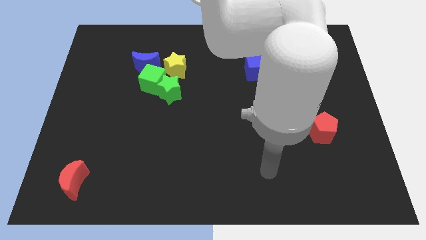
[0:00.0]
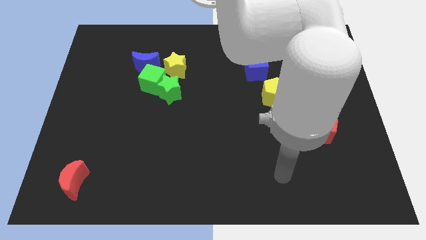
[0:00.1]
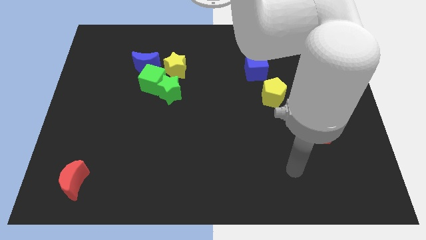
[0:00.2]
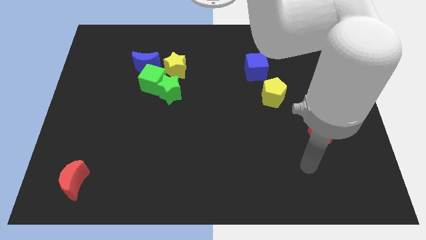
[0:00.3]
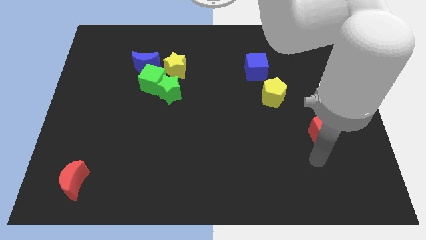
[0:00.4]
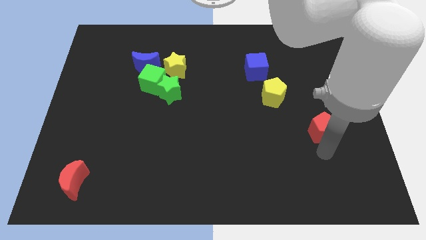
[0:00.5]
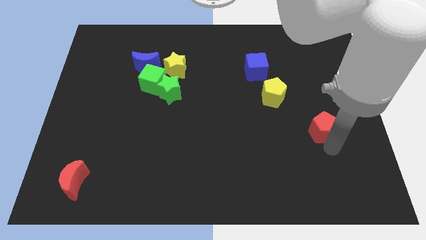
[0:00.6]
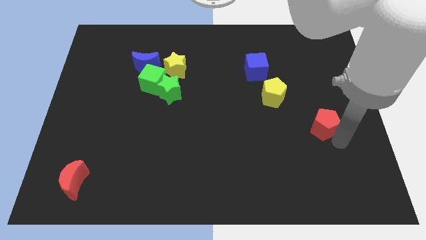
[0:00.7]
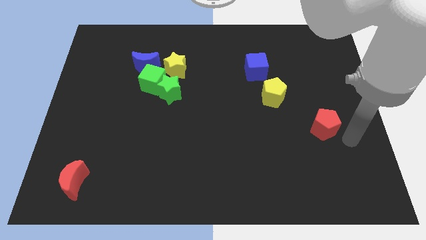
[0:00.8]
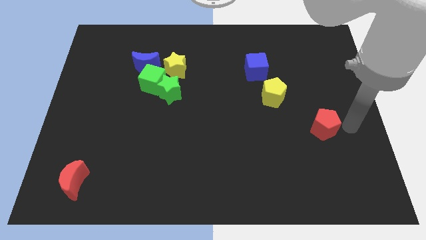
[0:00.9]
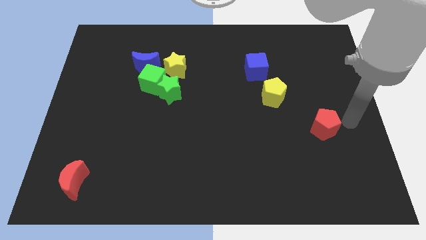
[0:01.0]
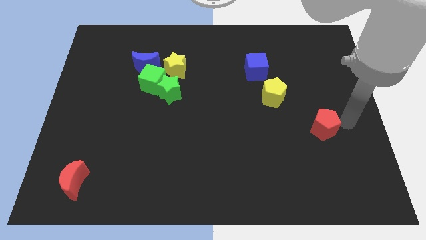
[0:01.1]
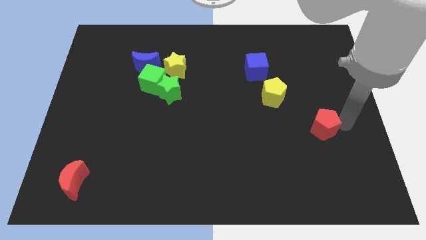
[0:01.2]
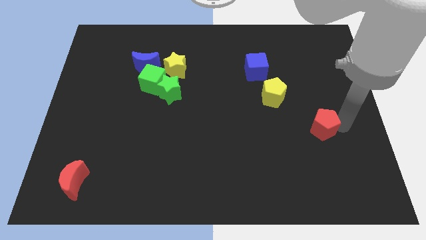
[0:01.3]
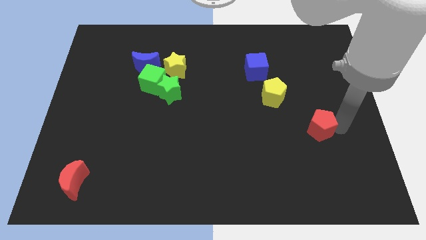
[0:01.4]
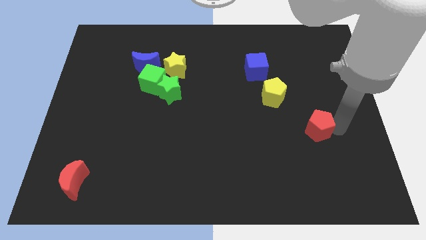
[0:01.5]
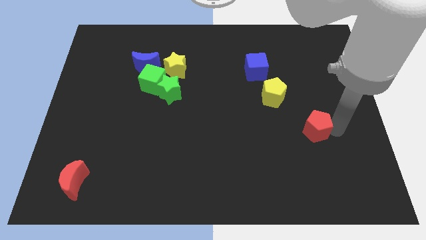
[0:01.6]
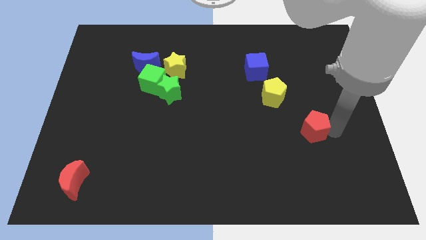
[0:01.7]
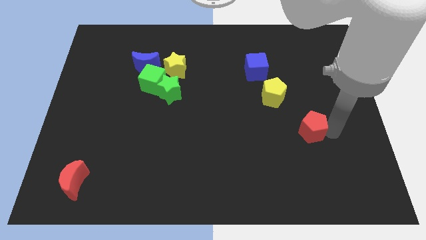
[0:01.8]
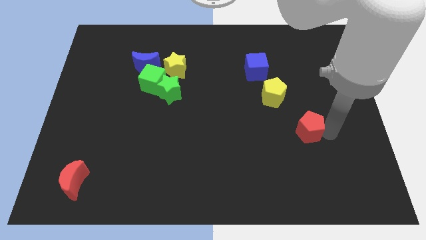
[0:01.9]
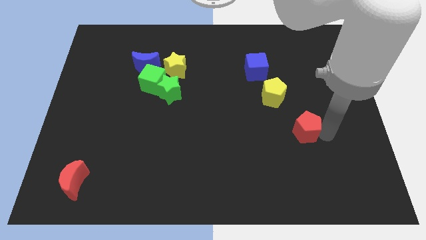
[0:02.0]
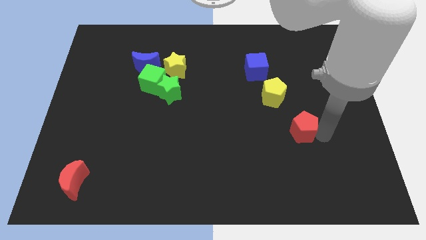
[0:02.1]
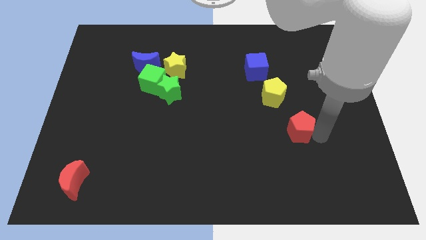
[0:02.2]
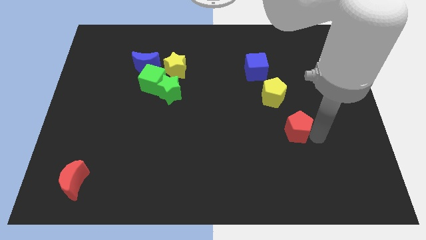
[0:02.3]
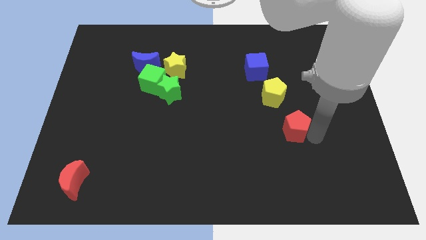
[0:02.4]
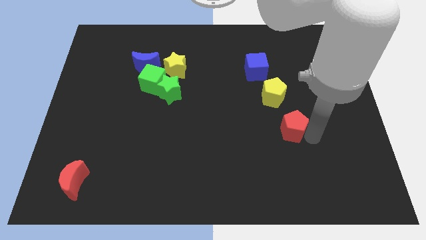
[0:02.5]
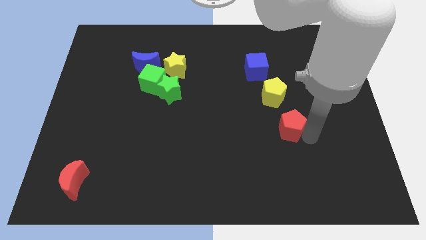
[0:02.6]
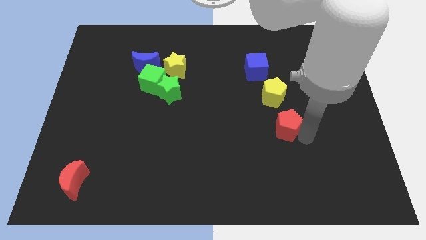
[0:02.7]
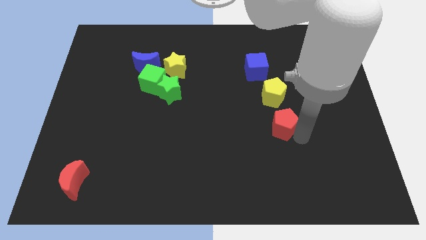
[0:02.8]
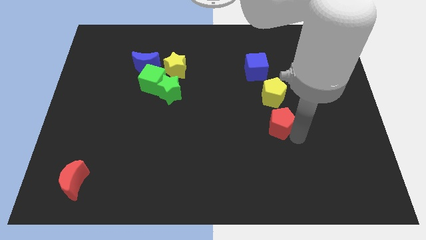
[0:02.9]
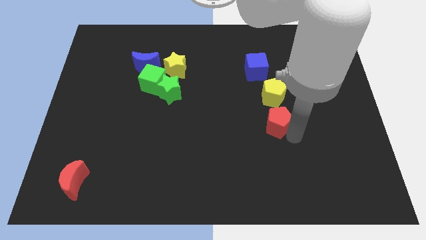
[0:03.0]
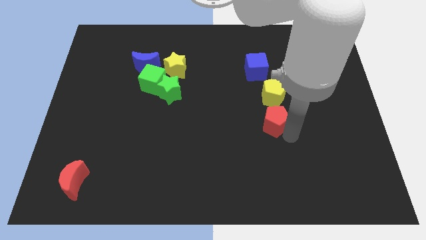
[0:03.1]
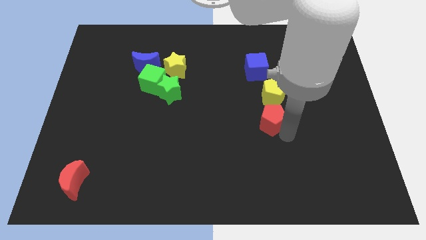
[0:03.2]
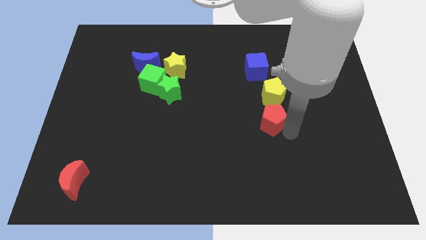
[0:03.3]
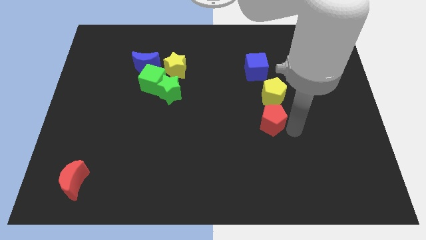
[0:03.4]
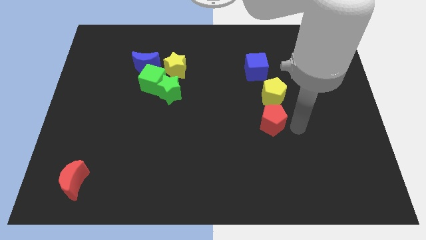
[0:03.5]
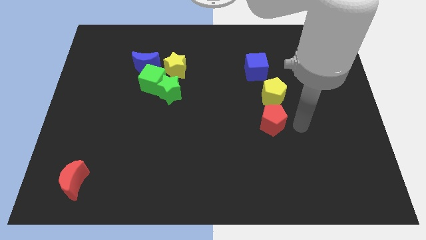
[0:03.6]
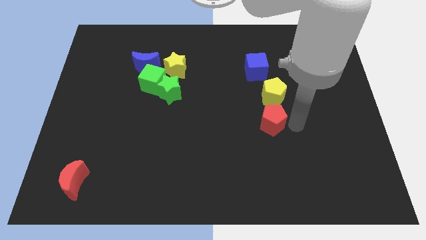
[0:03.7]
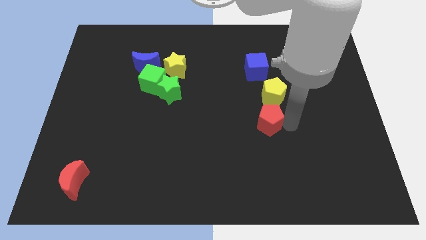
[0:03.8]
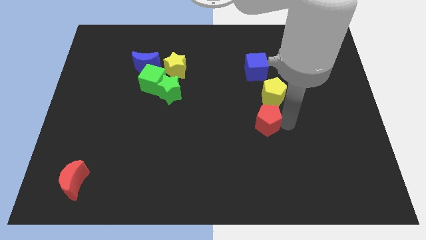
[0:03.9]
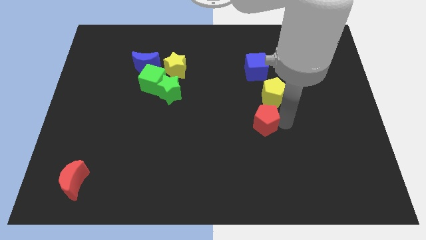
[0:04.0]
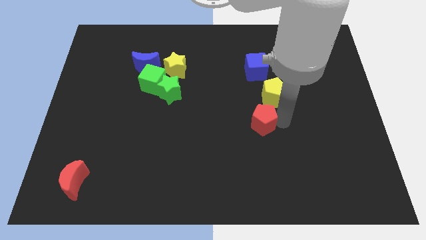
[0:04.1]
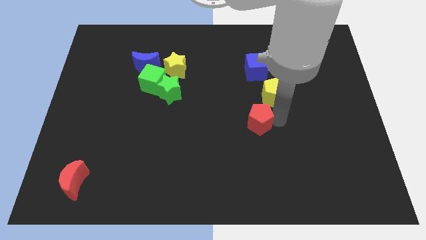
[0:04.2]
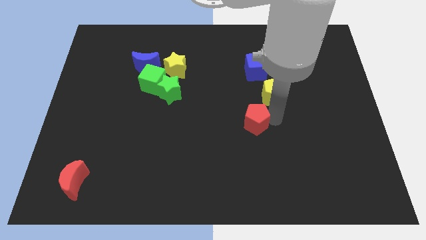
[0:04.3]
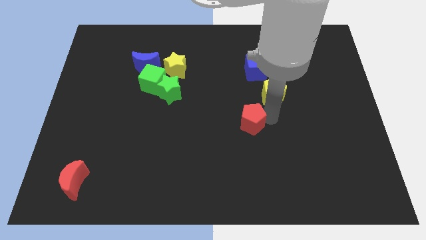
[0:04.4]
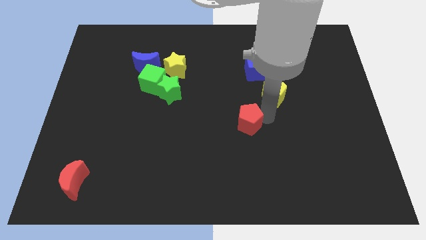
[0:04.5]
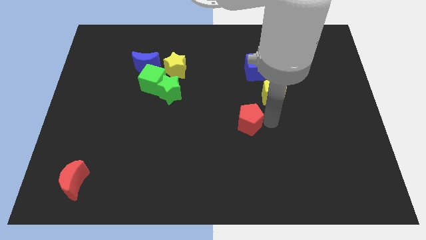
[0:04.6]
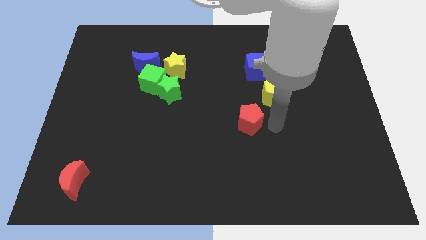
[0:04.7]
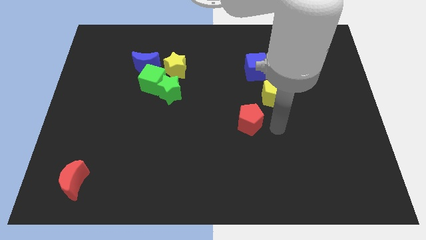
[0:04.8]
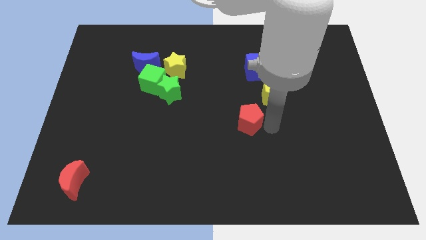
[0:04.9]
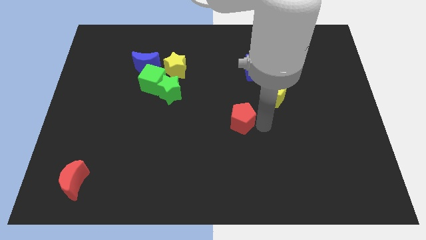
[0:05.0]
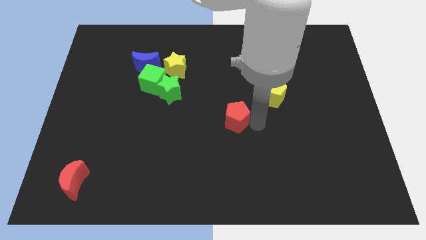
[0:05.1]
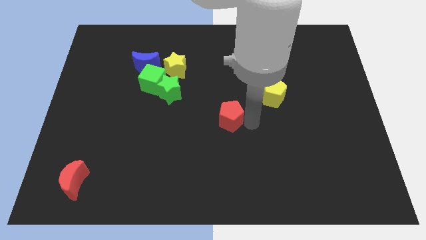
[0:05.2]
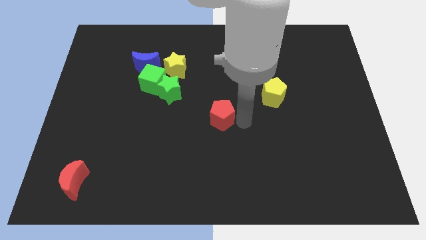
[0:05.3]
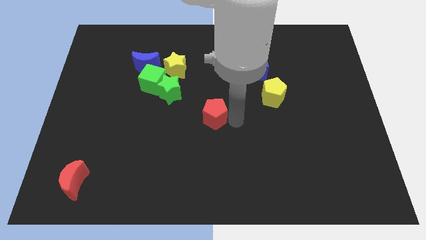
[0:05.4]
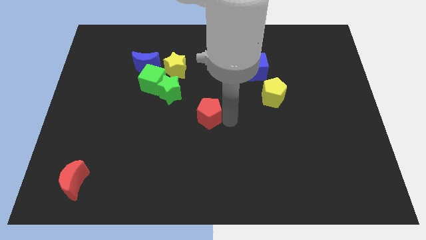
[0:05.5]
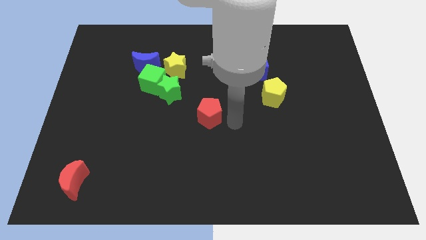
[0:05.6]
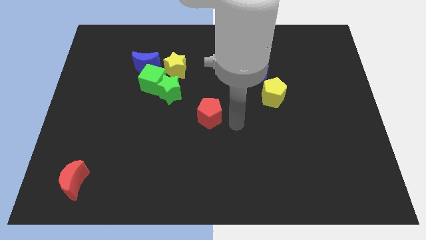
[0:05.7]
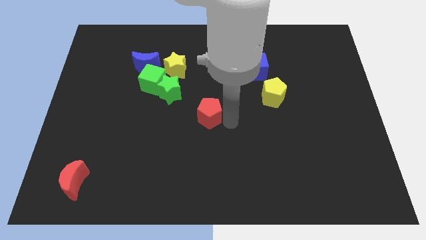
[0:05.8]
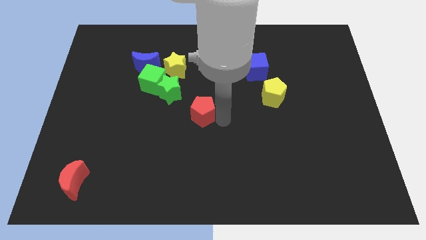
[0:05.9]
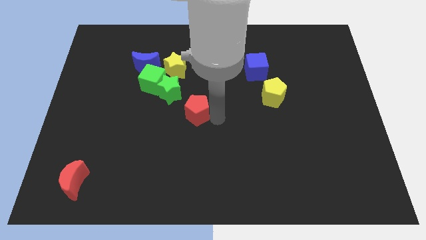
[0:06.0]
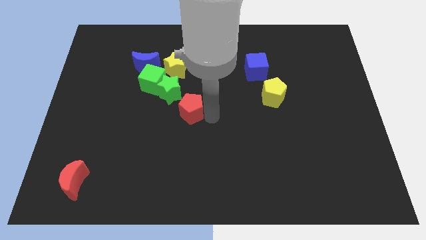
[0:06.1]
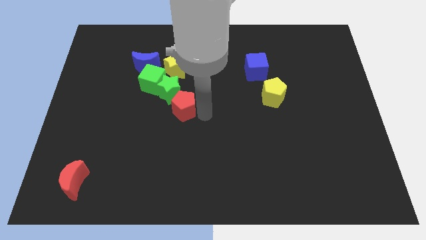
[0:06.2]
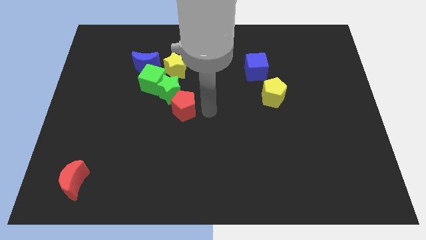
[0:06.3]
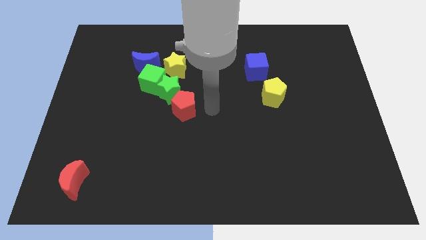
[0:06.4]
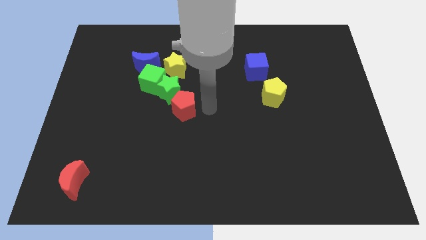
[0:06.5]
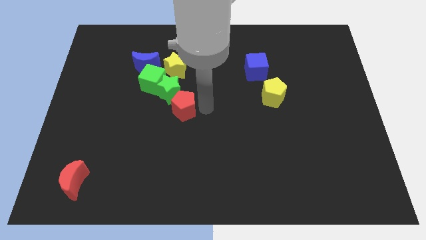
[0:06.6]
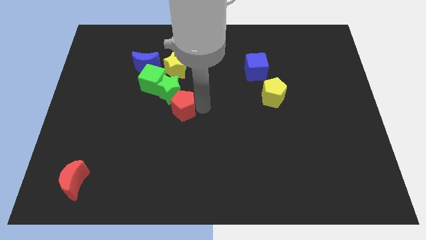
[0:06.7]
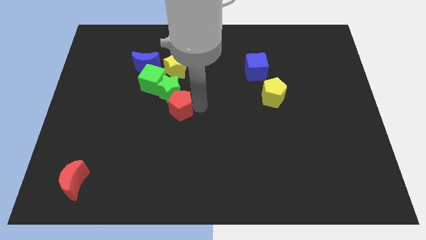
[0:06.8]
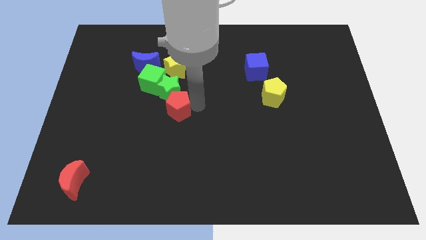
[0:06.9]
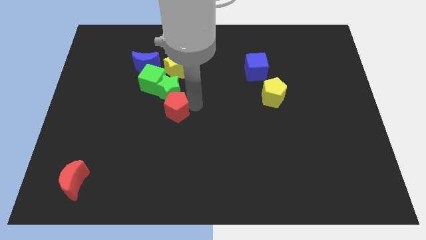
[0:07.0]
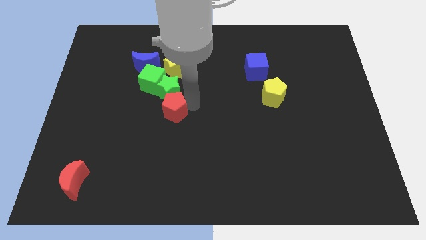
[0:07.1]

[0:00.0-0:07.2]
move the red pentagon diagonally down and to the left of the green star

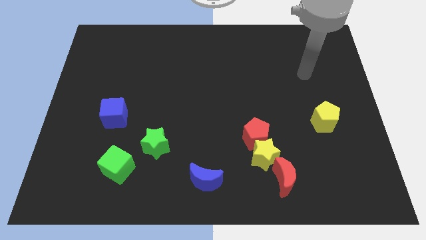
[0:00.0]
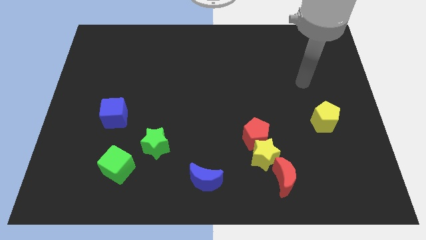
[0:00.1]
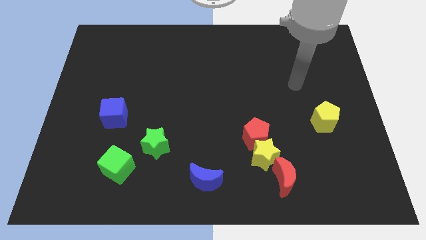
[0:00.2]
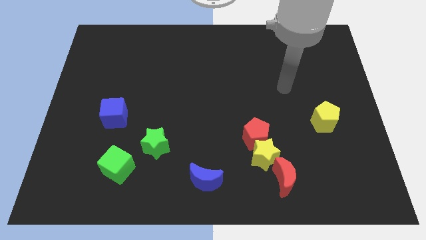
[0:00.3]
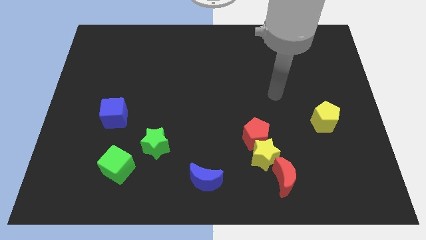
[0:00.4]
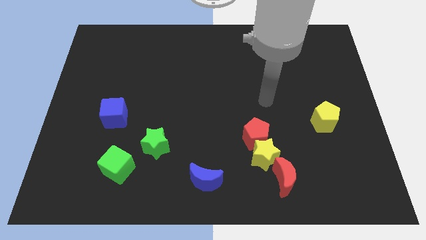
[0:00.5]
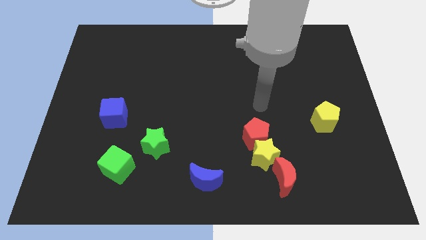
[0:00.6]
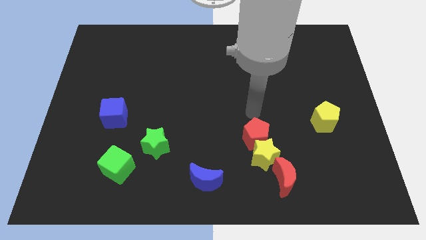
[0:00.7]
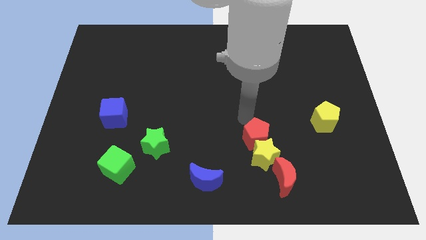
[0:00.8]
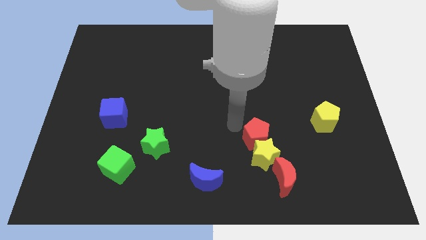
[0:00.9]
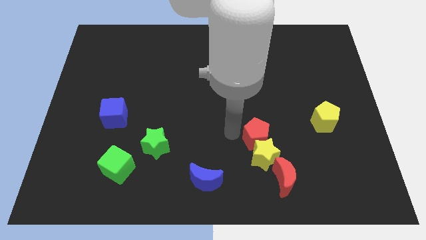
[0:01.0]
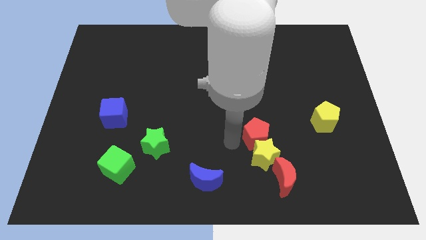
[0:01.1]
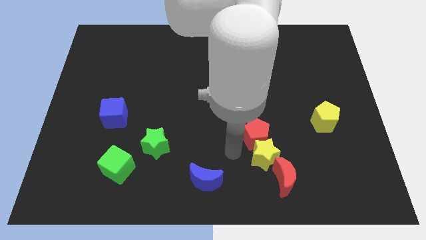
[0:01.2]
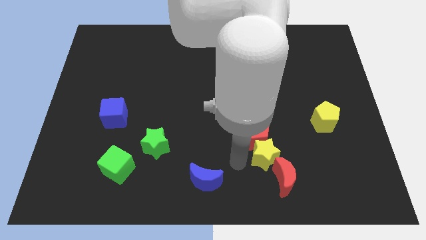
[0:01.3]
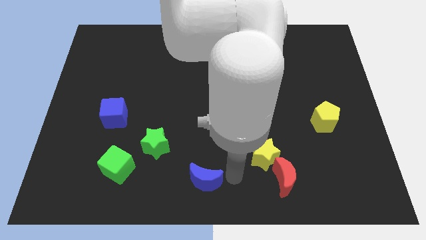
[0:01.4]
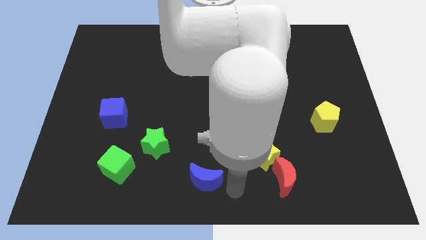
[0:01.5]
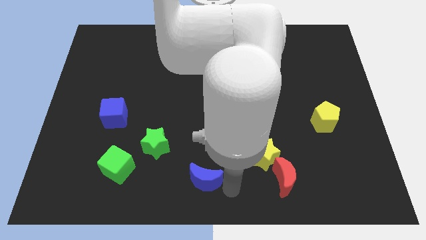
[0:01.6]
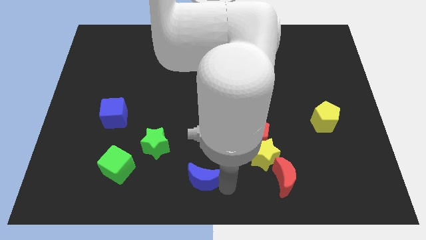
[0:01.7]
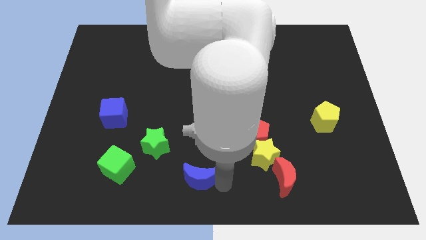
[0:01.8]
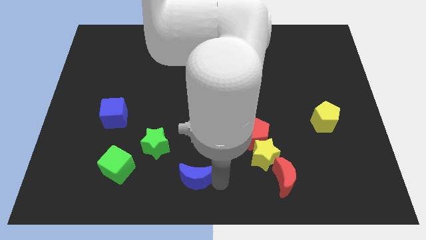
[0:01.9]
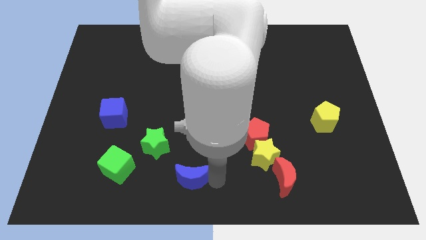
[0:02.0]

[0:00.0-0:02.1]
slide the blue moon just right of the green cube
